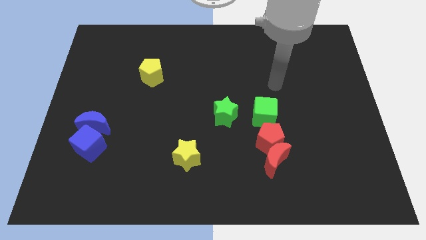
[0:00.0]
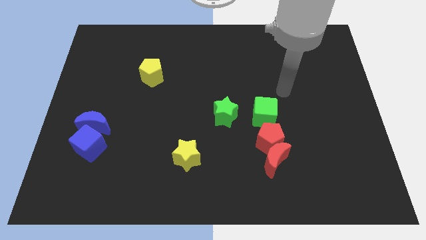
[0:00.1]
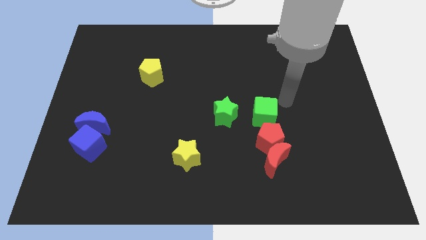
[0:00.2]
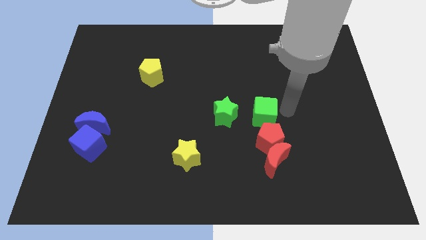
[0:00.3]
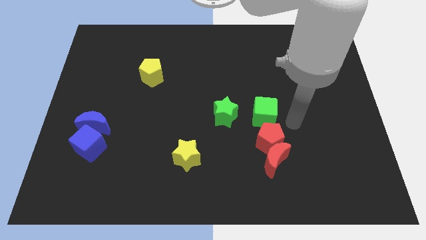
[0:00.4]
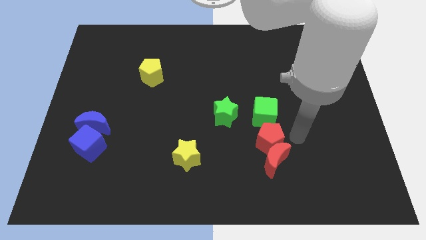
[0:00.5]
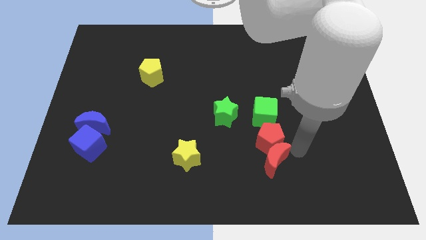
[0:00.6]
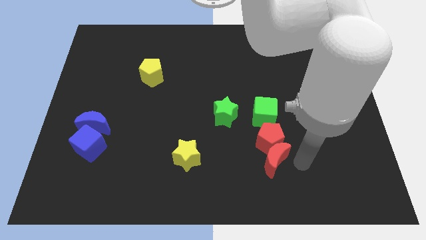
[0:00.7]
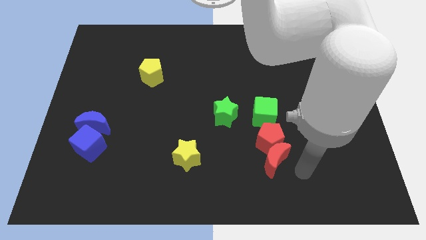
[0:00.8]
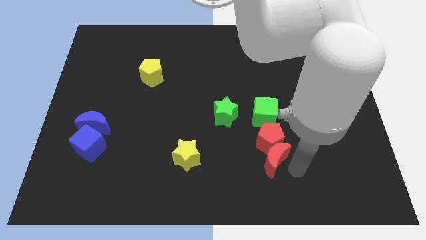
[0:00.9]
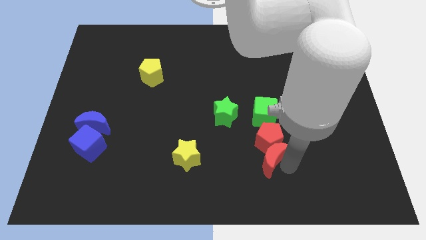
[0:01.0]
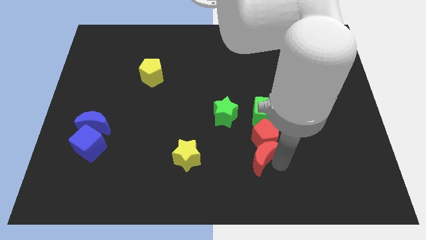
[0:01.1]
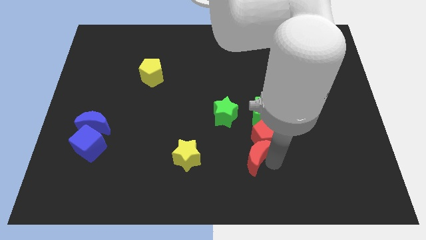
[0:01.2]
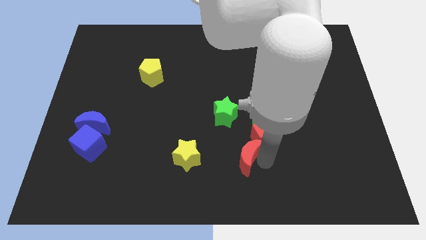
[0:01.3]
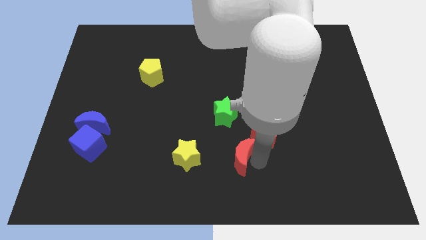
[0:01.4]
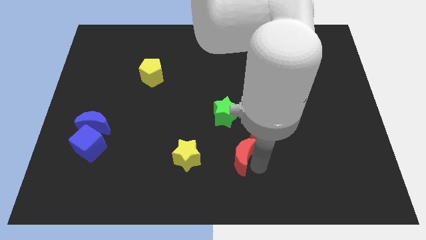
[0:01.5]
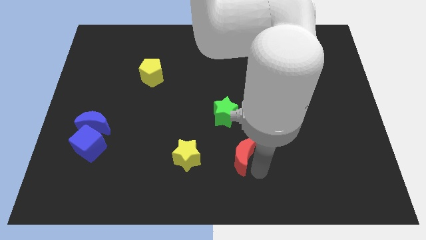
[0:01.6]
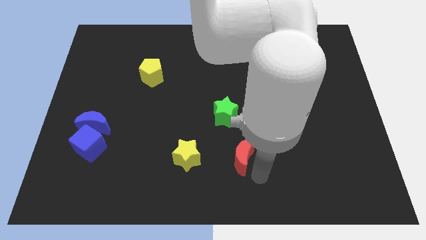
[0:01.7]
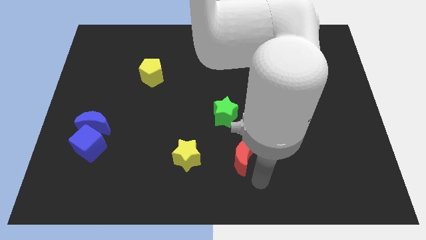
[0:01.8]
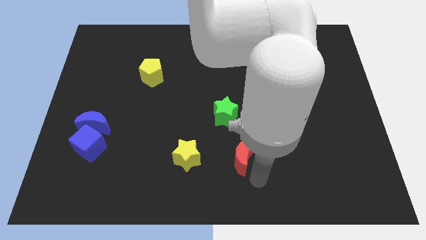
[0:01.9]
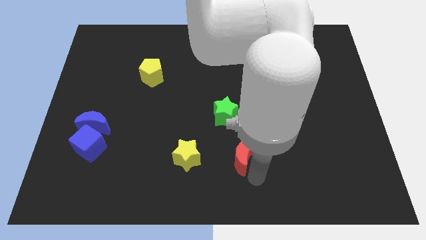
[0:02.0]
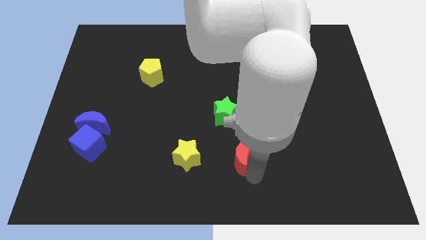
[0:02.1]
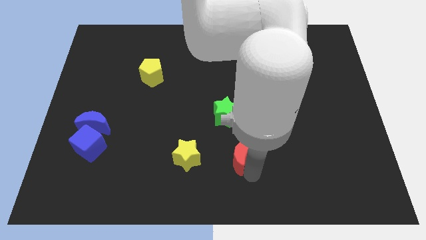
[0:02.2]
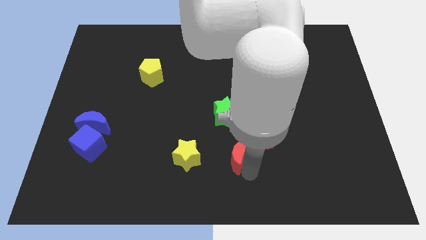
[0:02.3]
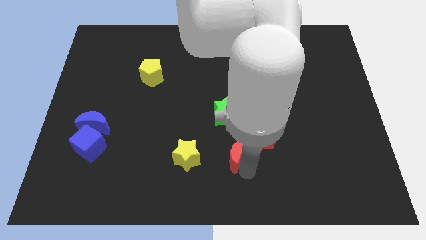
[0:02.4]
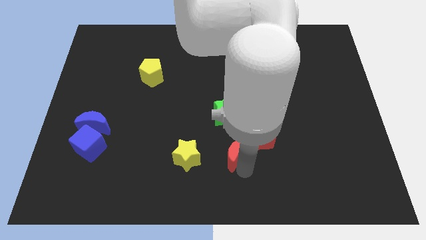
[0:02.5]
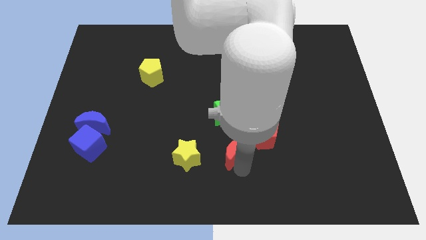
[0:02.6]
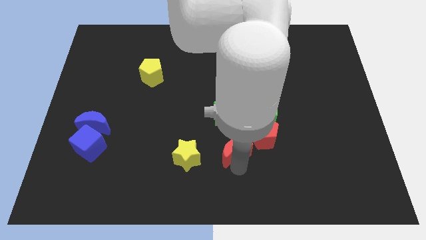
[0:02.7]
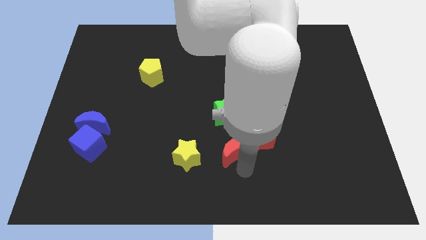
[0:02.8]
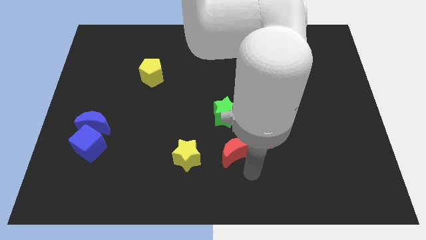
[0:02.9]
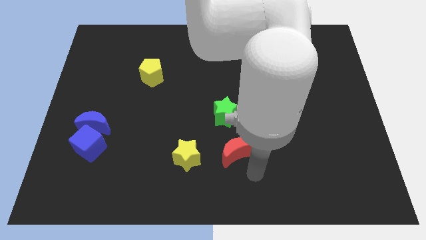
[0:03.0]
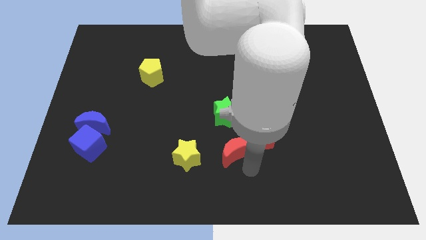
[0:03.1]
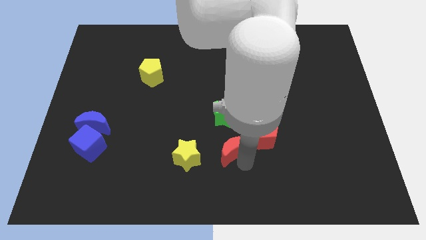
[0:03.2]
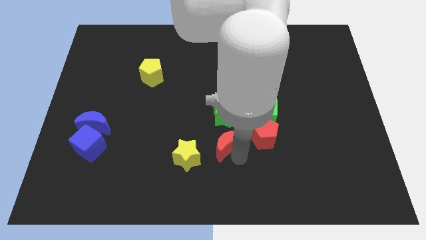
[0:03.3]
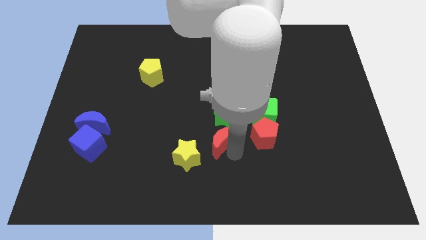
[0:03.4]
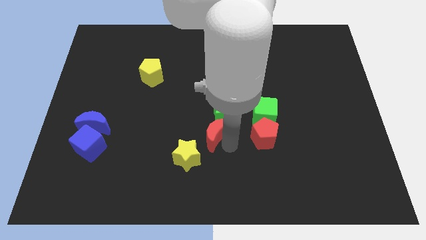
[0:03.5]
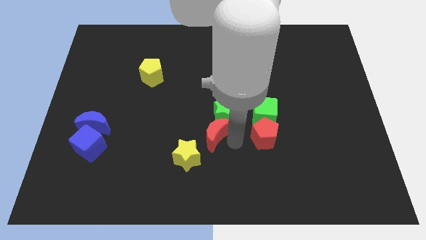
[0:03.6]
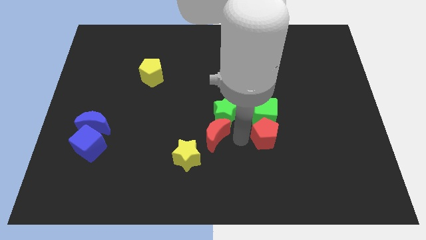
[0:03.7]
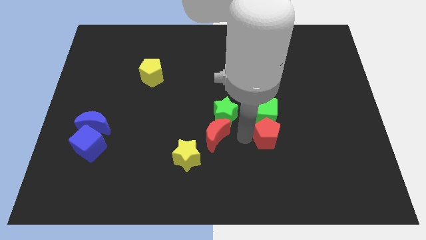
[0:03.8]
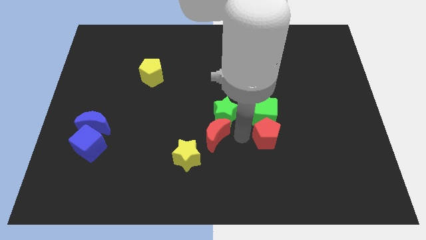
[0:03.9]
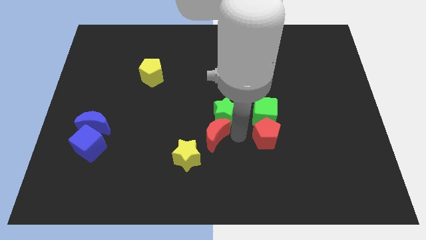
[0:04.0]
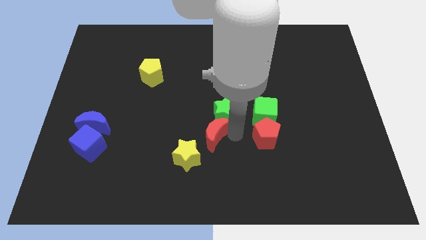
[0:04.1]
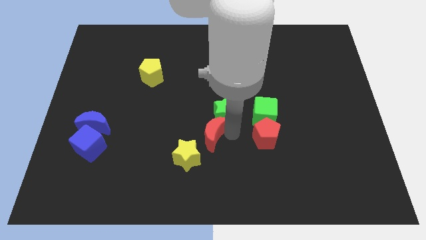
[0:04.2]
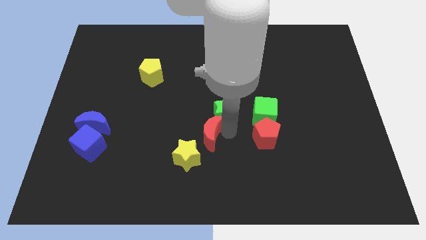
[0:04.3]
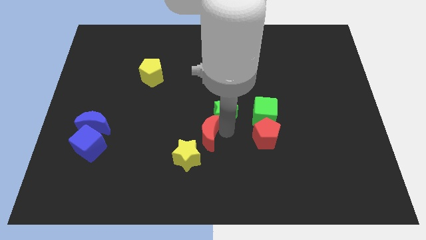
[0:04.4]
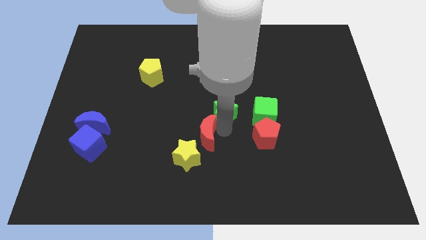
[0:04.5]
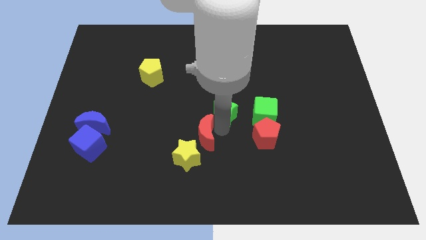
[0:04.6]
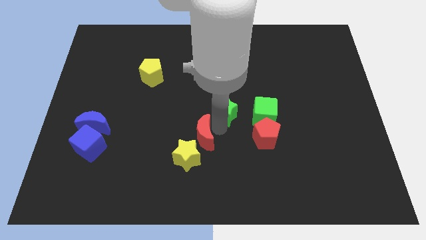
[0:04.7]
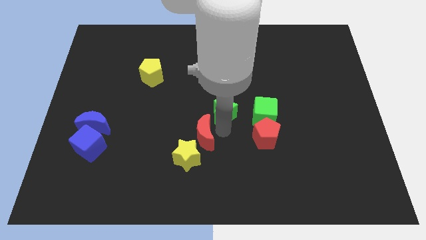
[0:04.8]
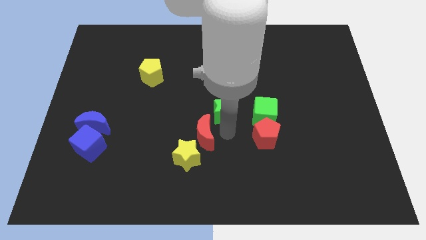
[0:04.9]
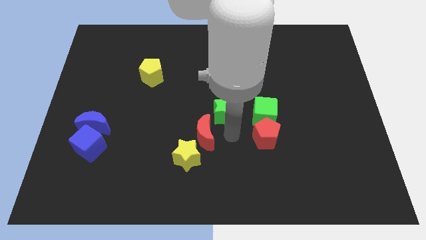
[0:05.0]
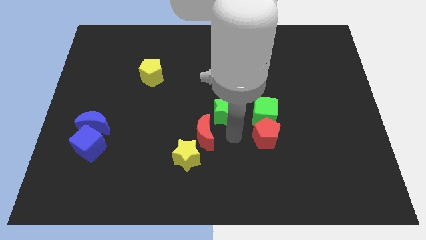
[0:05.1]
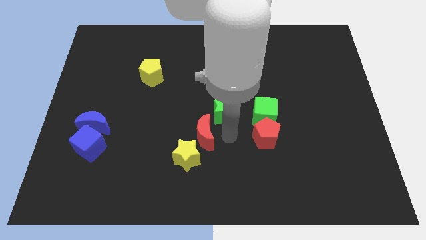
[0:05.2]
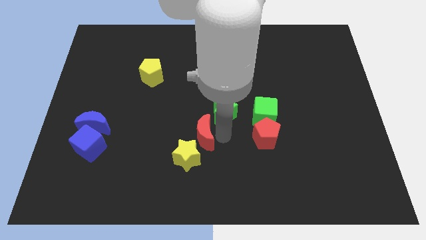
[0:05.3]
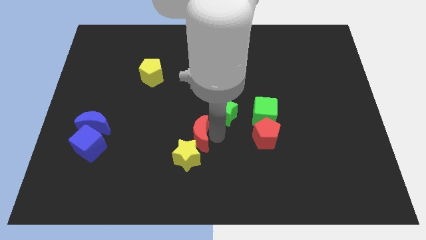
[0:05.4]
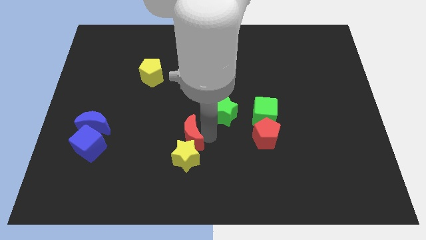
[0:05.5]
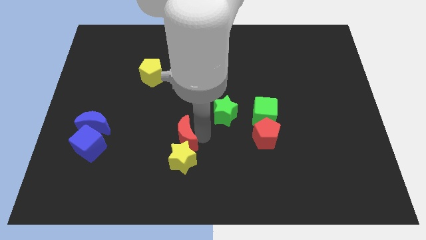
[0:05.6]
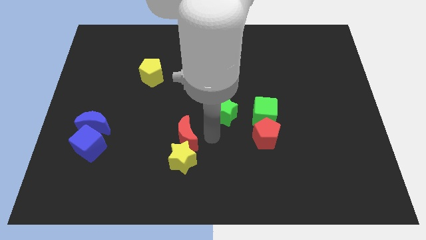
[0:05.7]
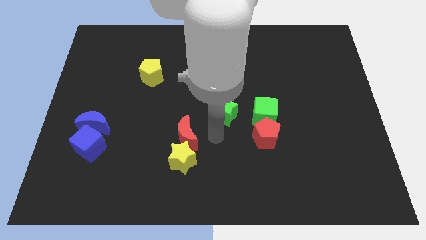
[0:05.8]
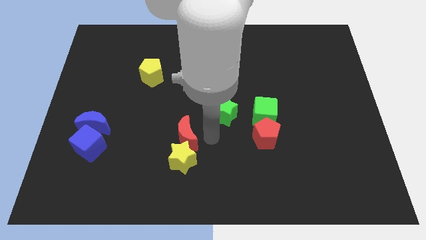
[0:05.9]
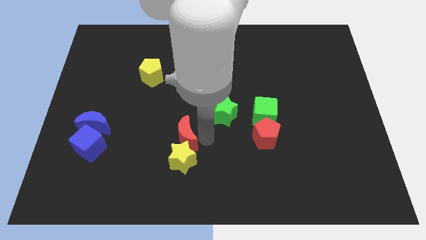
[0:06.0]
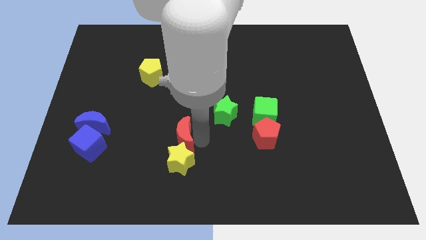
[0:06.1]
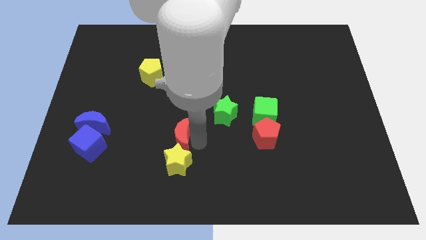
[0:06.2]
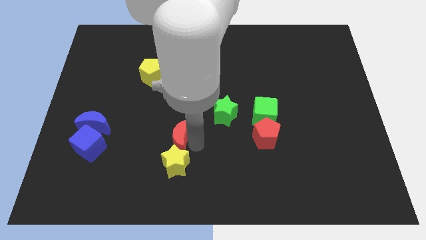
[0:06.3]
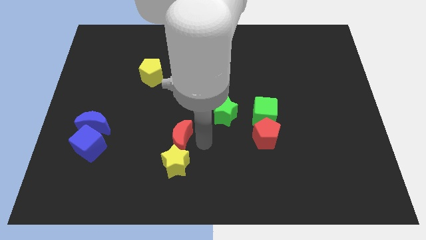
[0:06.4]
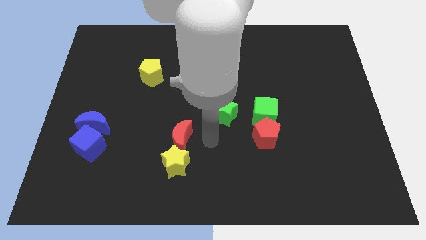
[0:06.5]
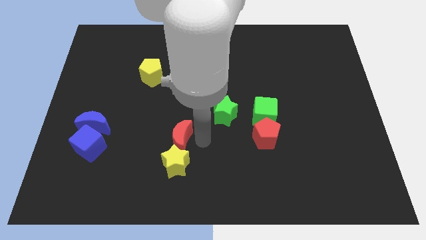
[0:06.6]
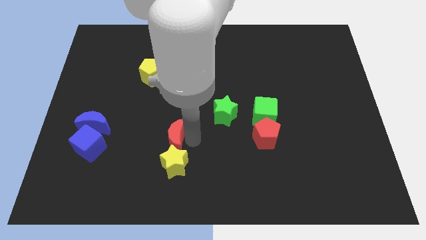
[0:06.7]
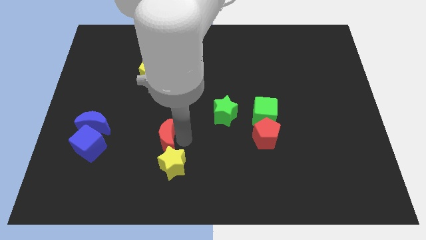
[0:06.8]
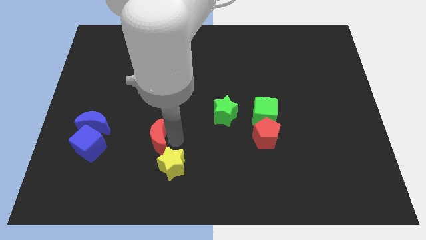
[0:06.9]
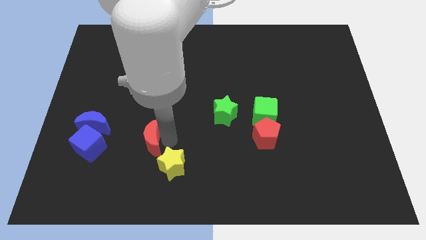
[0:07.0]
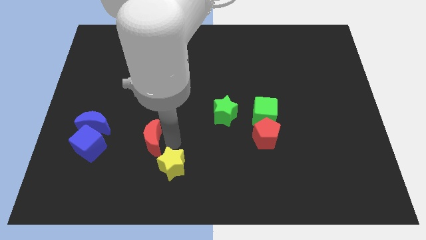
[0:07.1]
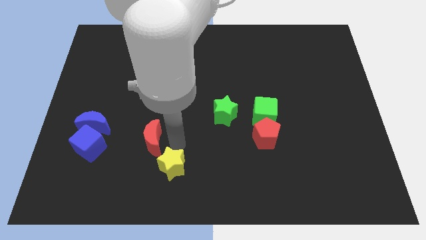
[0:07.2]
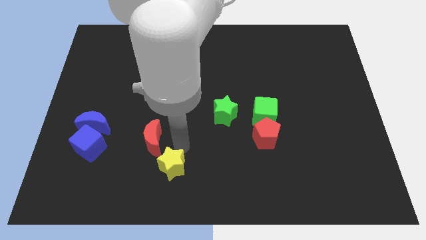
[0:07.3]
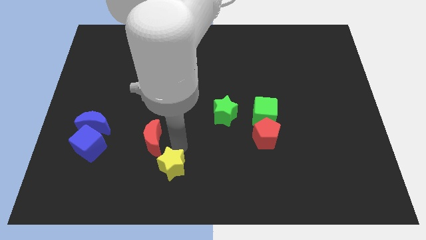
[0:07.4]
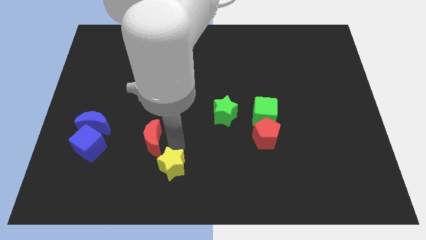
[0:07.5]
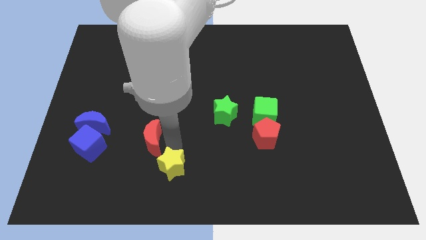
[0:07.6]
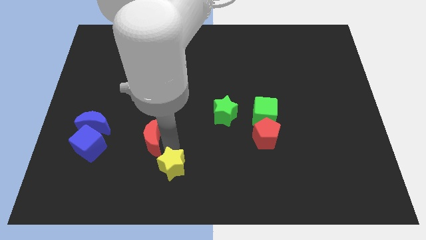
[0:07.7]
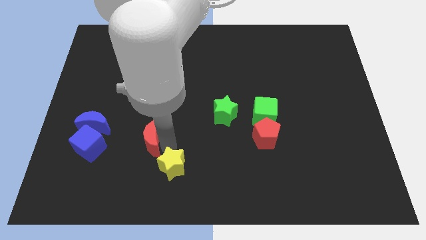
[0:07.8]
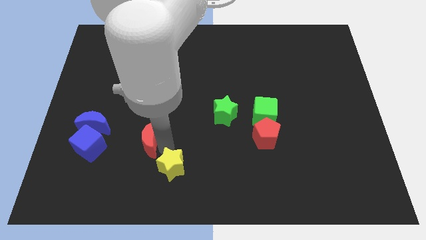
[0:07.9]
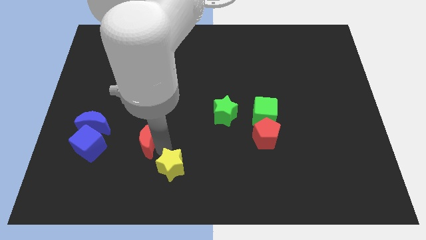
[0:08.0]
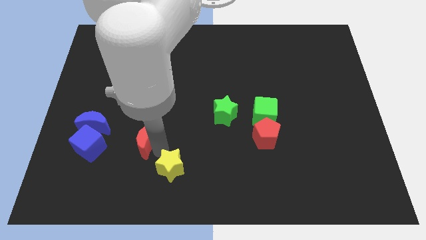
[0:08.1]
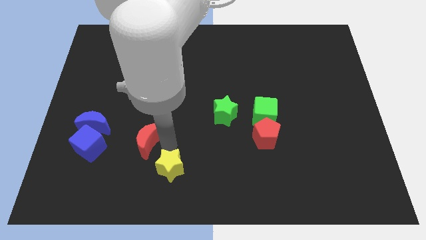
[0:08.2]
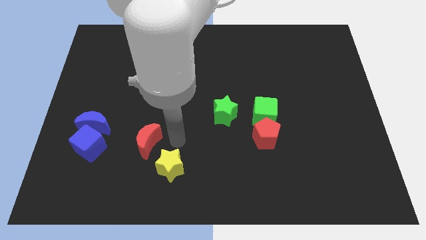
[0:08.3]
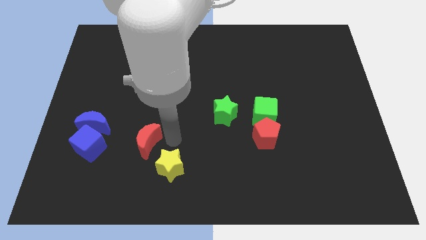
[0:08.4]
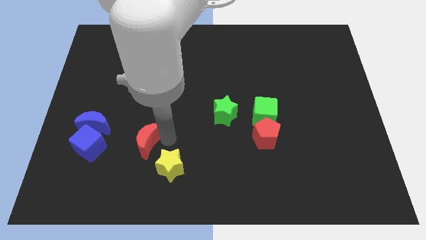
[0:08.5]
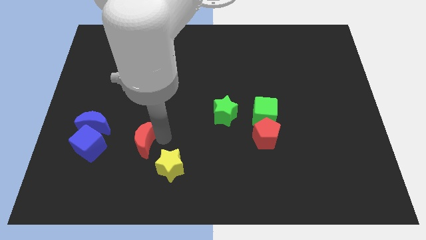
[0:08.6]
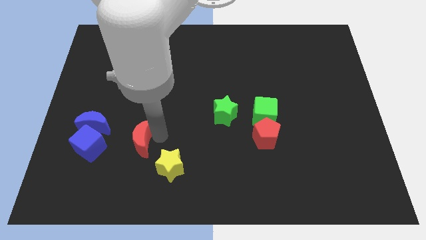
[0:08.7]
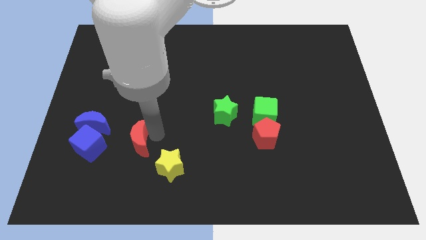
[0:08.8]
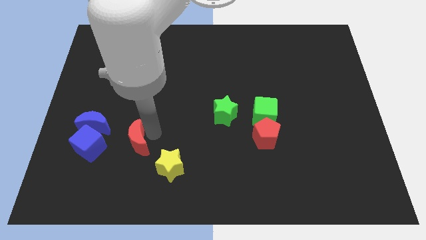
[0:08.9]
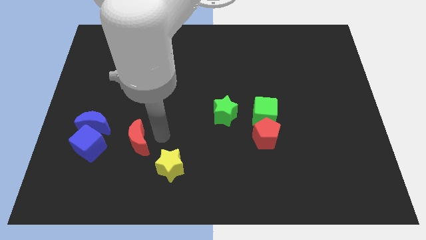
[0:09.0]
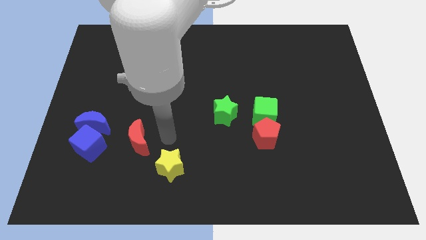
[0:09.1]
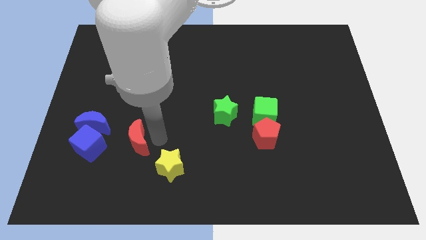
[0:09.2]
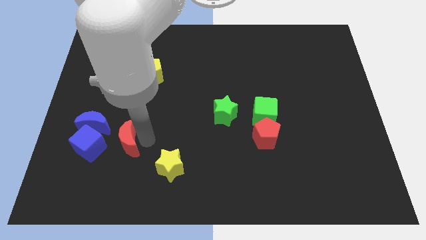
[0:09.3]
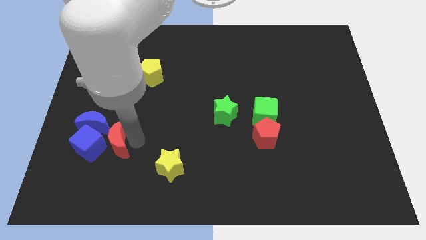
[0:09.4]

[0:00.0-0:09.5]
move the red moon next to the blue cube
